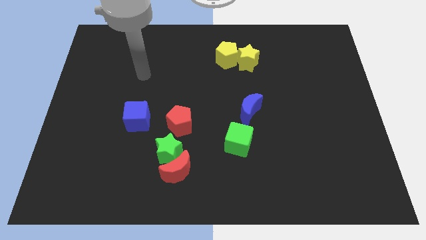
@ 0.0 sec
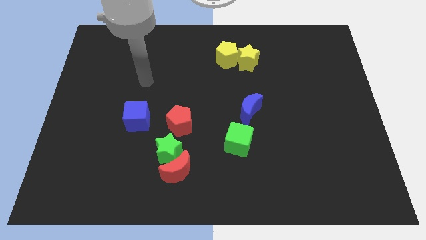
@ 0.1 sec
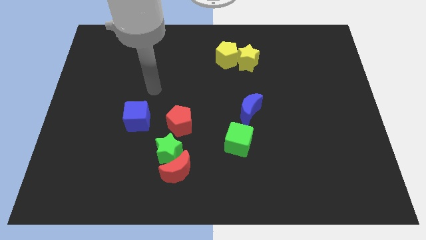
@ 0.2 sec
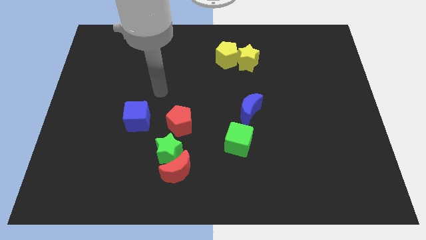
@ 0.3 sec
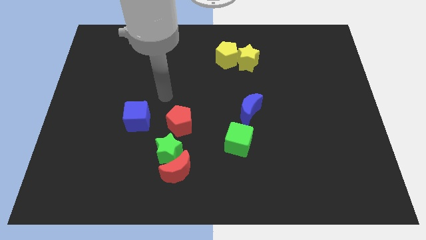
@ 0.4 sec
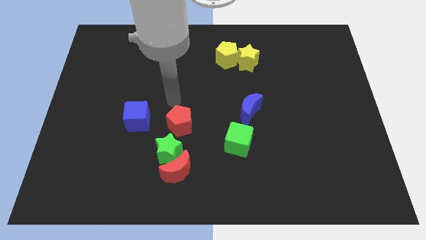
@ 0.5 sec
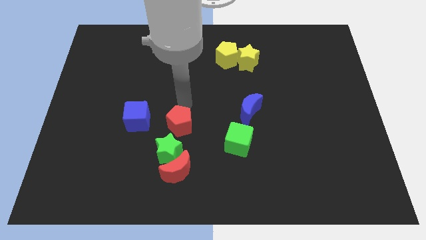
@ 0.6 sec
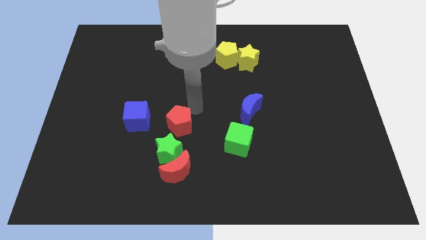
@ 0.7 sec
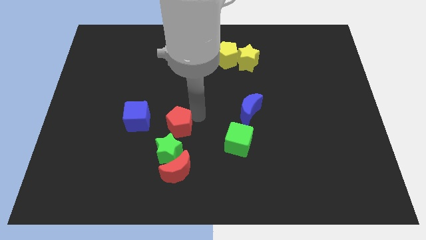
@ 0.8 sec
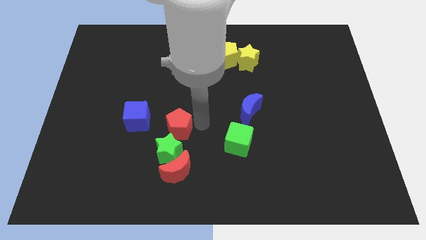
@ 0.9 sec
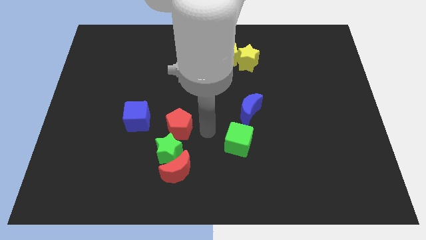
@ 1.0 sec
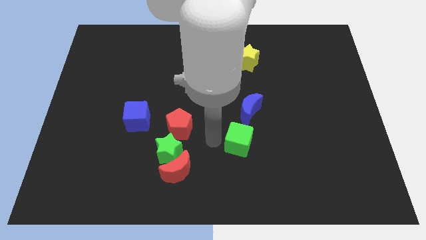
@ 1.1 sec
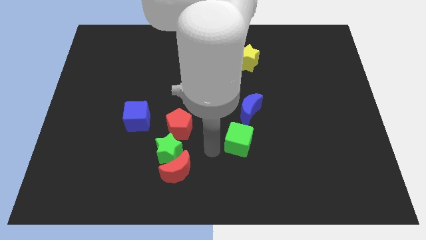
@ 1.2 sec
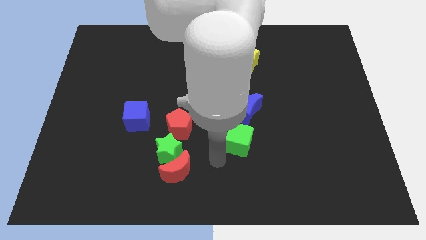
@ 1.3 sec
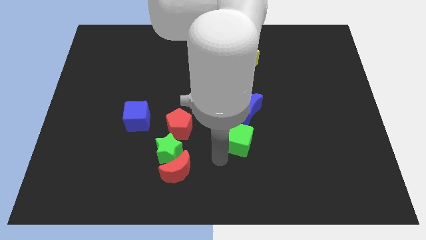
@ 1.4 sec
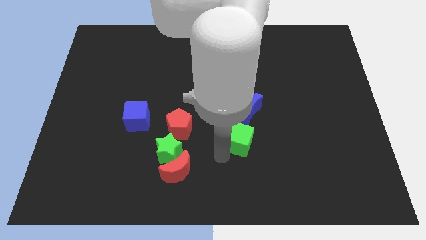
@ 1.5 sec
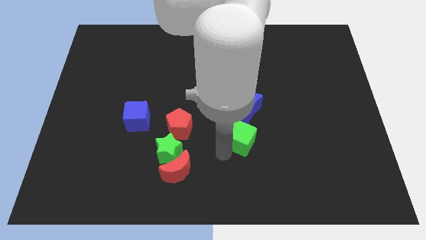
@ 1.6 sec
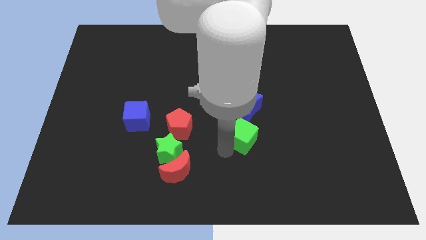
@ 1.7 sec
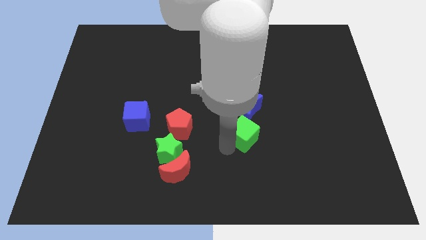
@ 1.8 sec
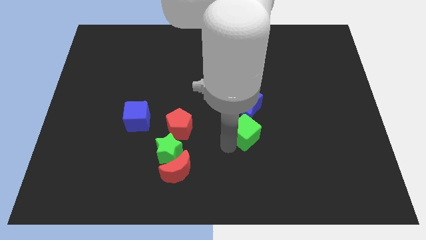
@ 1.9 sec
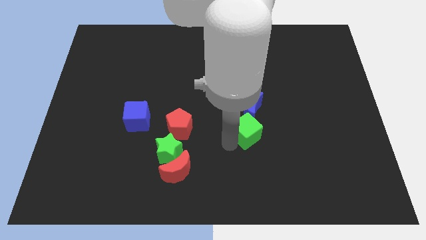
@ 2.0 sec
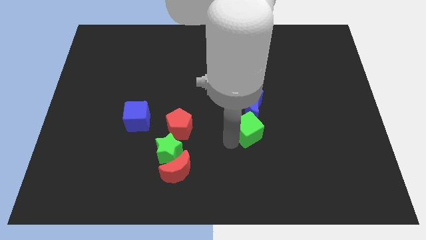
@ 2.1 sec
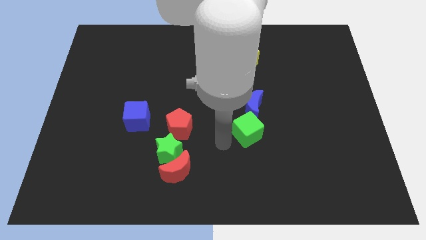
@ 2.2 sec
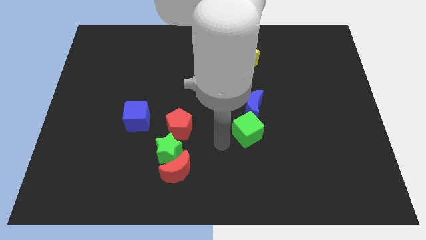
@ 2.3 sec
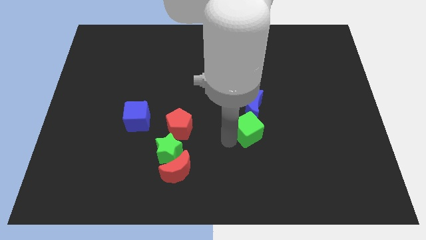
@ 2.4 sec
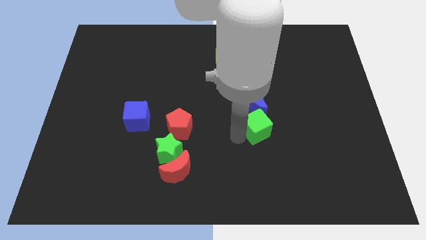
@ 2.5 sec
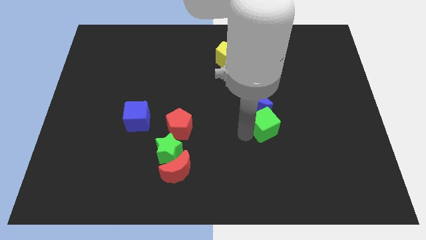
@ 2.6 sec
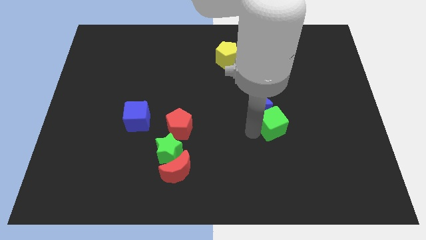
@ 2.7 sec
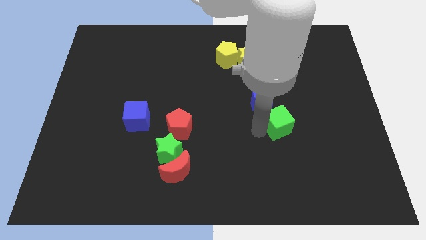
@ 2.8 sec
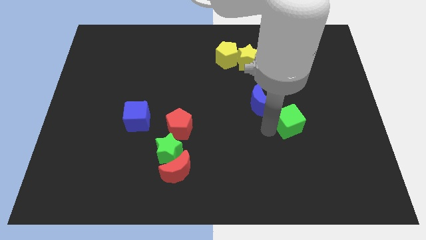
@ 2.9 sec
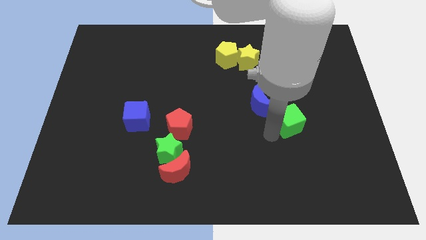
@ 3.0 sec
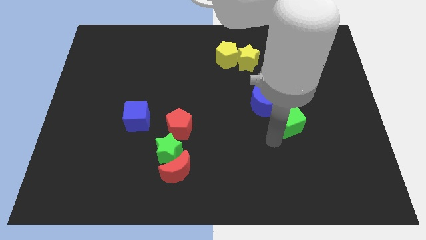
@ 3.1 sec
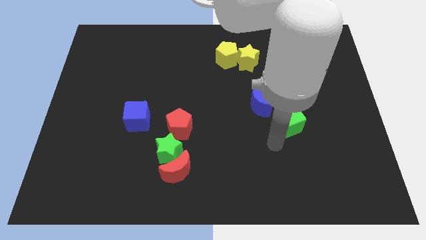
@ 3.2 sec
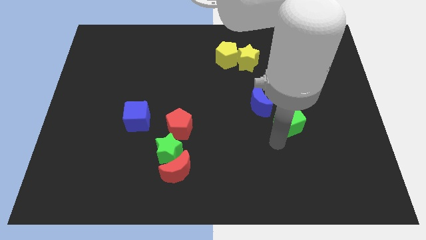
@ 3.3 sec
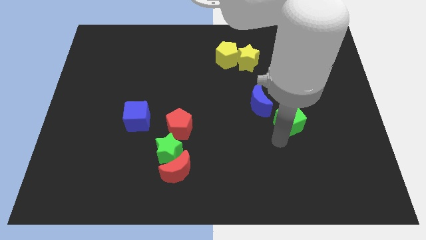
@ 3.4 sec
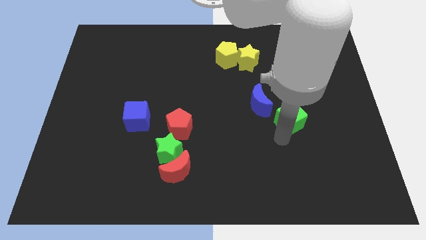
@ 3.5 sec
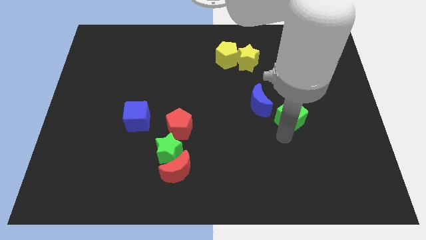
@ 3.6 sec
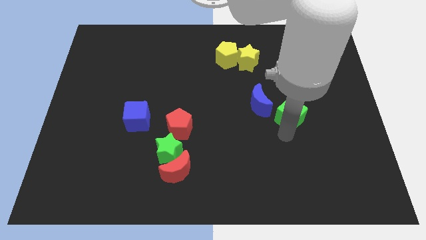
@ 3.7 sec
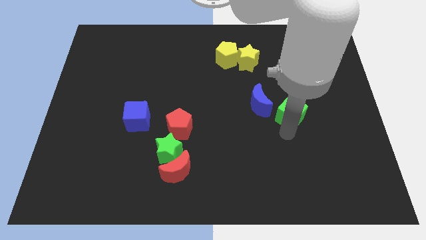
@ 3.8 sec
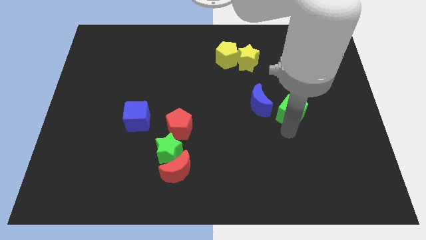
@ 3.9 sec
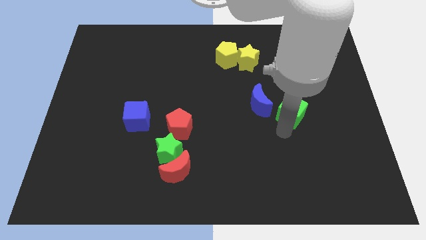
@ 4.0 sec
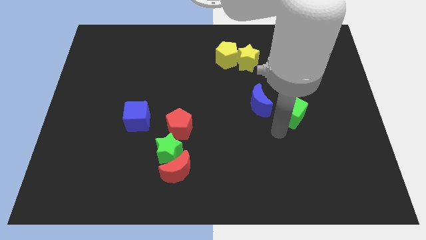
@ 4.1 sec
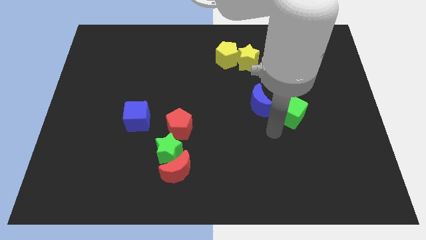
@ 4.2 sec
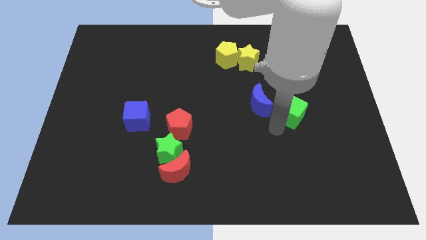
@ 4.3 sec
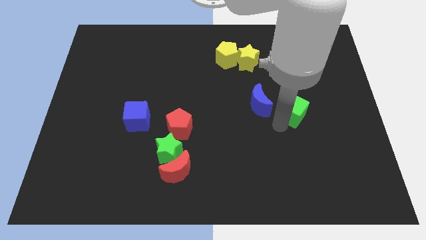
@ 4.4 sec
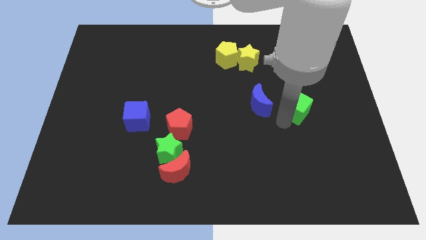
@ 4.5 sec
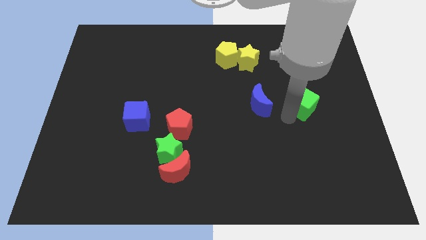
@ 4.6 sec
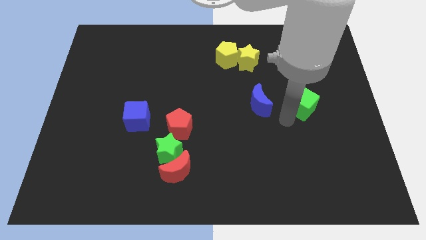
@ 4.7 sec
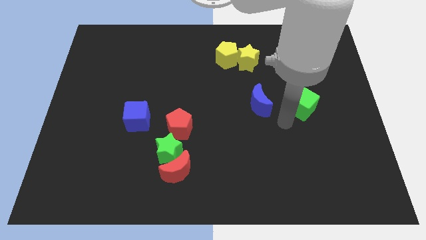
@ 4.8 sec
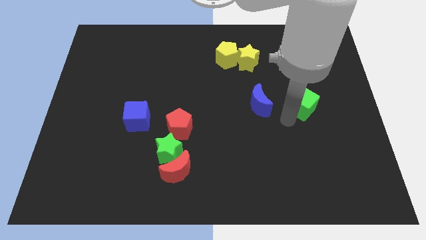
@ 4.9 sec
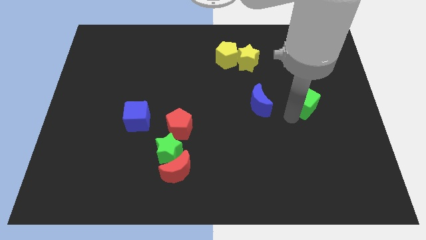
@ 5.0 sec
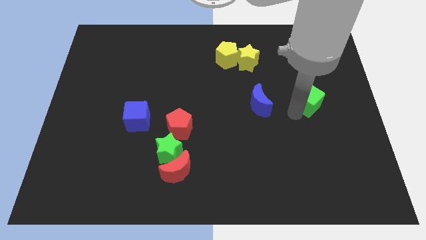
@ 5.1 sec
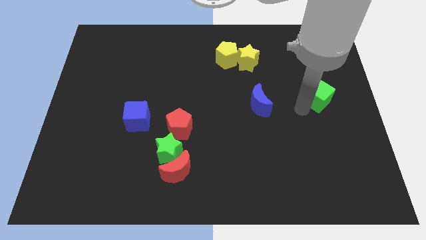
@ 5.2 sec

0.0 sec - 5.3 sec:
move the green cube up and to the right

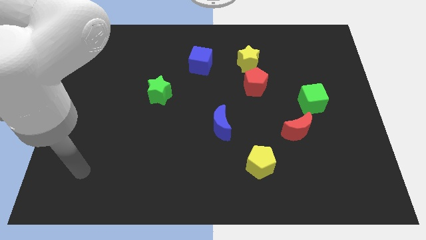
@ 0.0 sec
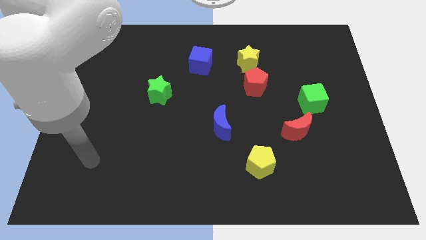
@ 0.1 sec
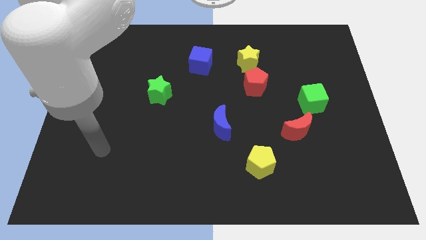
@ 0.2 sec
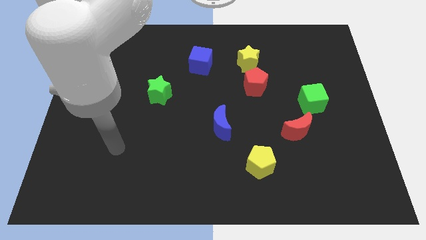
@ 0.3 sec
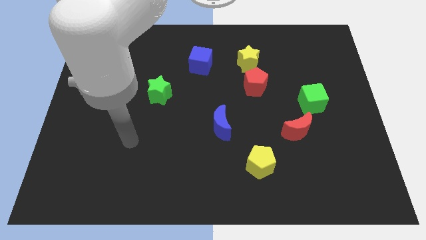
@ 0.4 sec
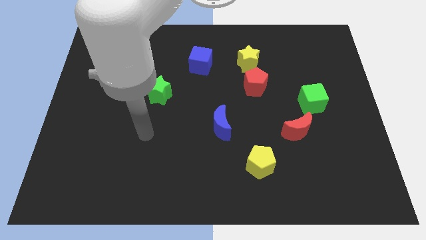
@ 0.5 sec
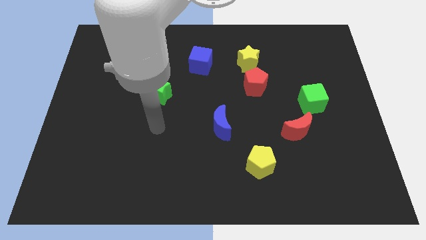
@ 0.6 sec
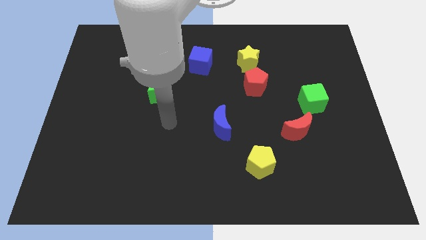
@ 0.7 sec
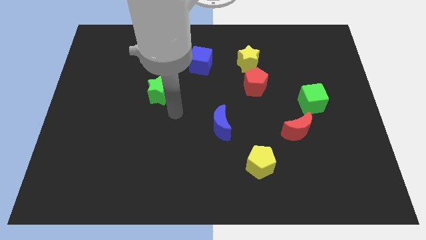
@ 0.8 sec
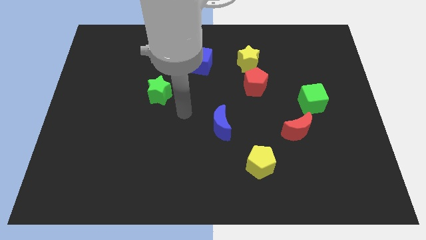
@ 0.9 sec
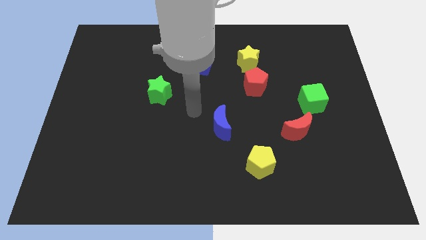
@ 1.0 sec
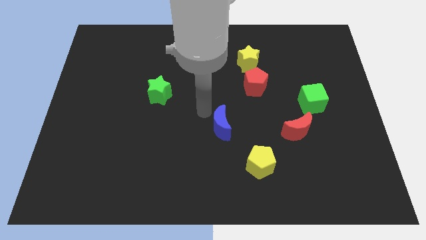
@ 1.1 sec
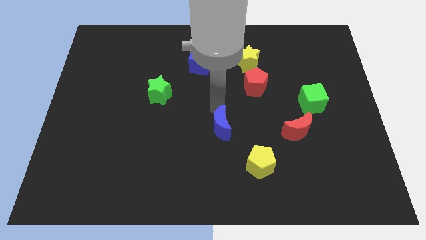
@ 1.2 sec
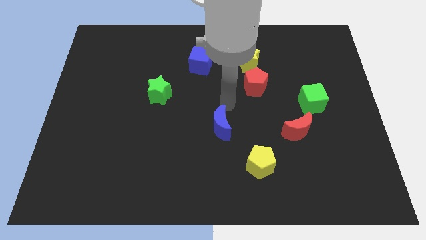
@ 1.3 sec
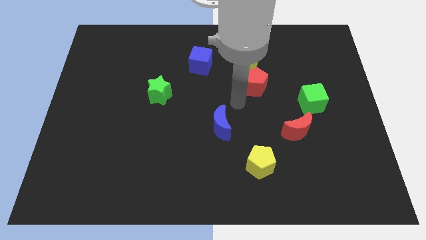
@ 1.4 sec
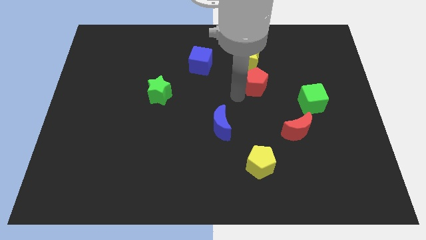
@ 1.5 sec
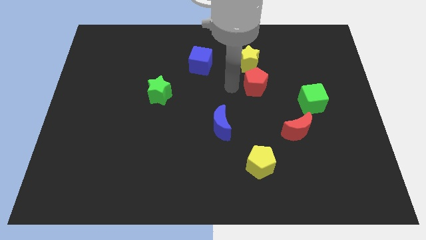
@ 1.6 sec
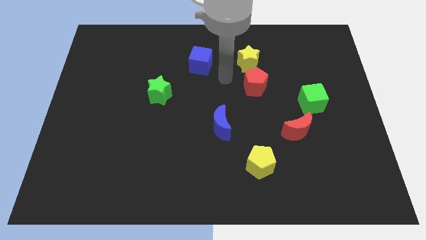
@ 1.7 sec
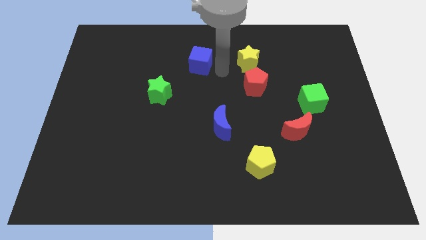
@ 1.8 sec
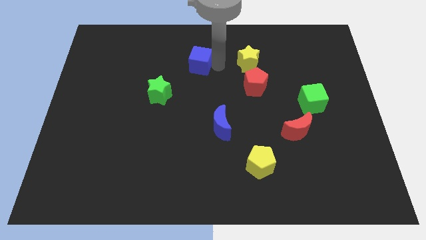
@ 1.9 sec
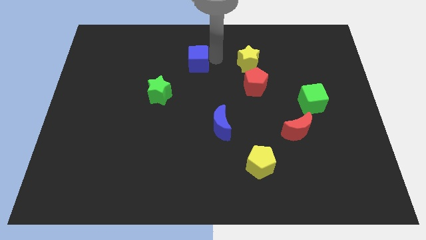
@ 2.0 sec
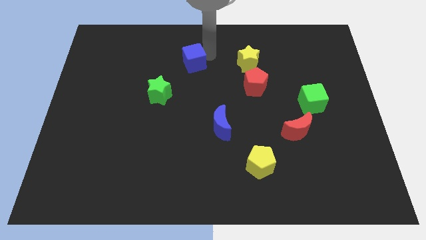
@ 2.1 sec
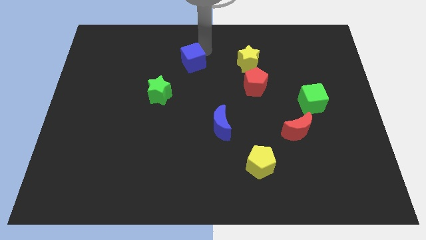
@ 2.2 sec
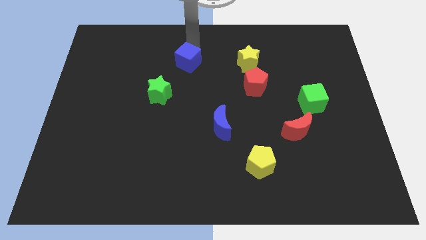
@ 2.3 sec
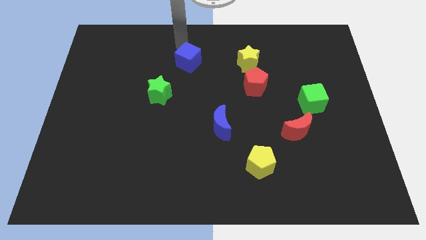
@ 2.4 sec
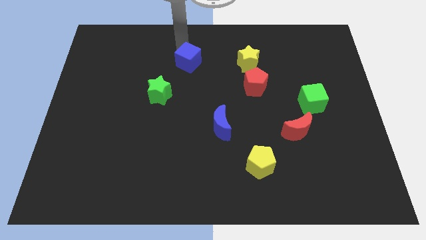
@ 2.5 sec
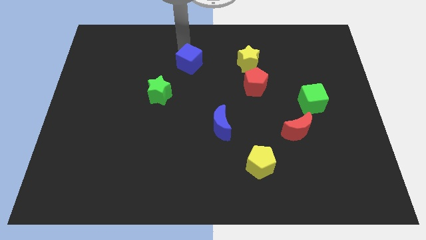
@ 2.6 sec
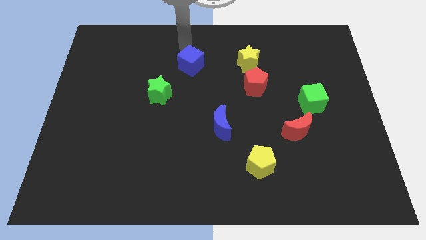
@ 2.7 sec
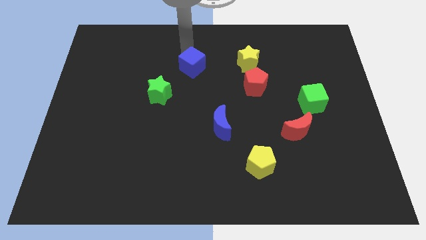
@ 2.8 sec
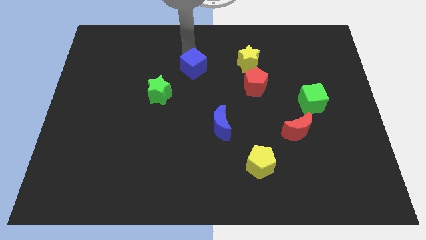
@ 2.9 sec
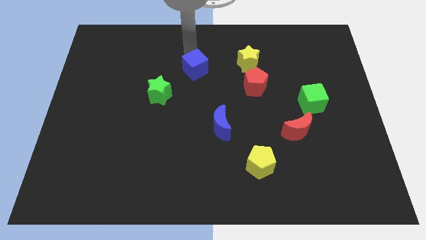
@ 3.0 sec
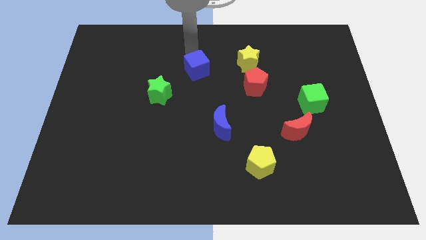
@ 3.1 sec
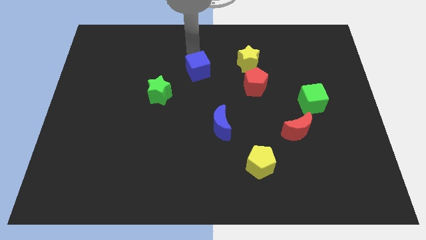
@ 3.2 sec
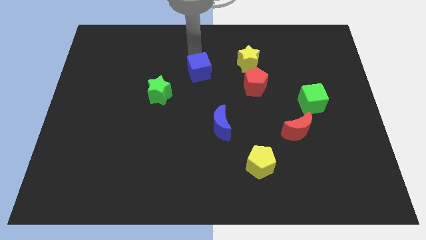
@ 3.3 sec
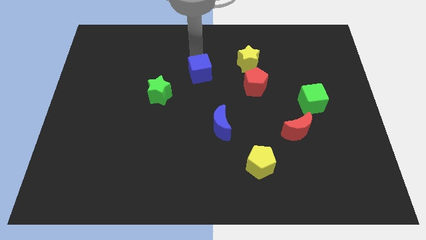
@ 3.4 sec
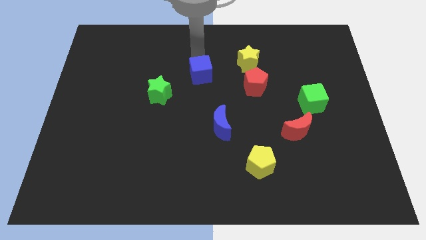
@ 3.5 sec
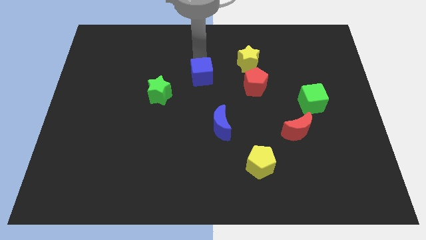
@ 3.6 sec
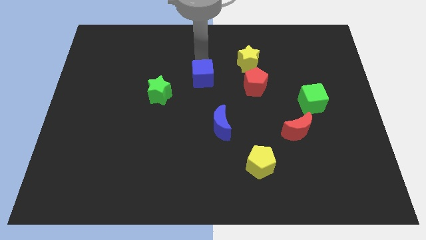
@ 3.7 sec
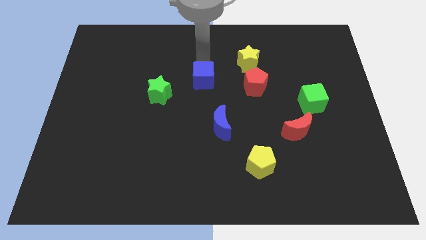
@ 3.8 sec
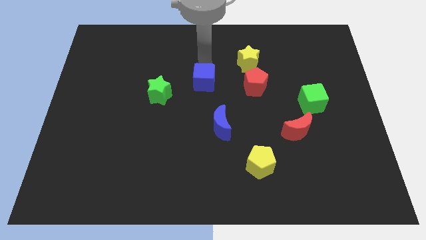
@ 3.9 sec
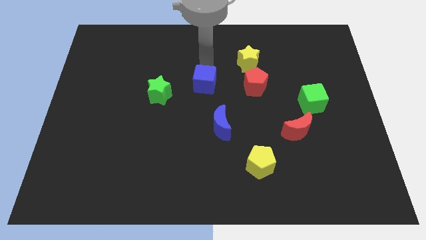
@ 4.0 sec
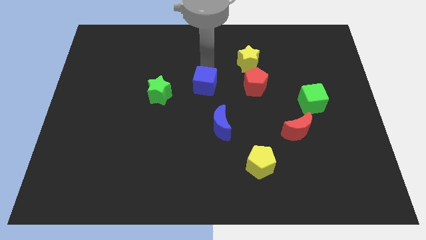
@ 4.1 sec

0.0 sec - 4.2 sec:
move the blue cube a bit downwards
